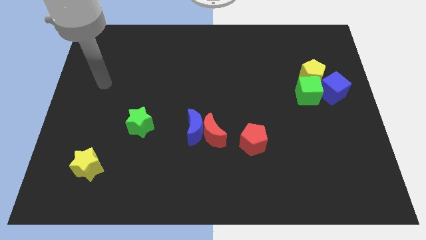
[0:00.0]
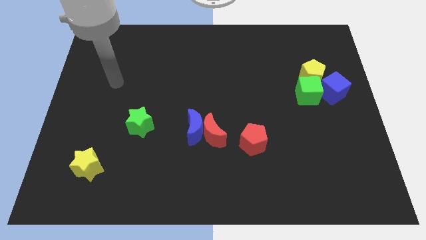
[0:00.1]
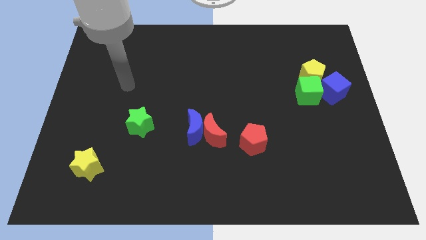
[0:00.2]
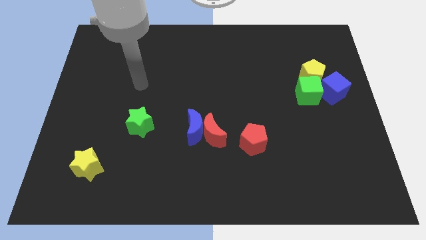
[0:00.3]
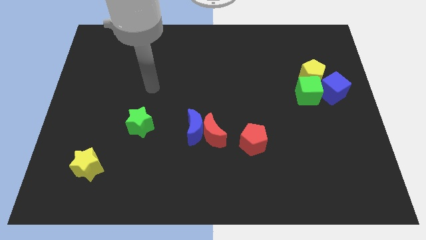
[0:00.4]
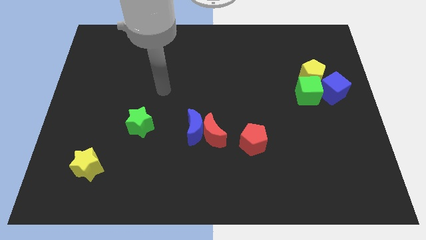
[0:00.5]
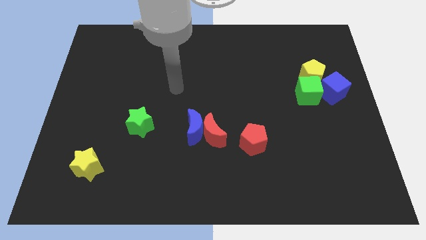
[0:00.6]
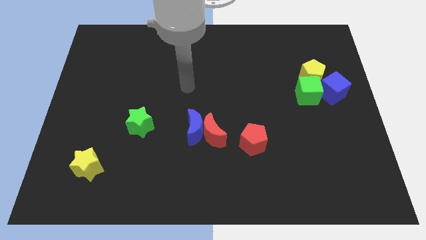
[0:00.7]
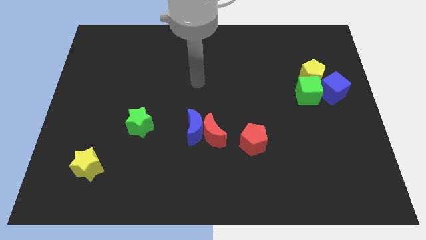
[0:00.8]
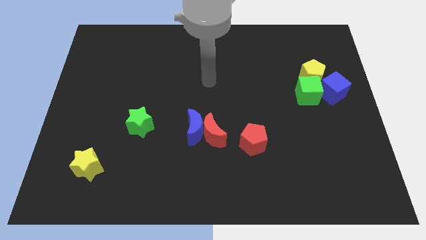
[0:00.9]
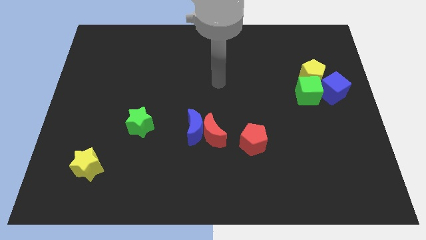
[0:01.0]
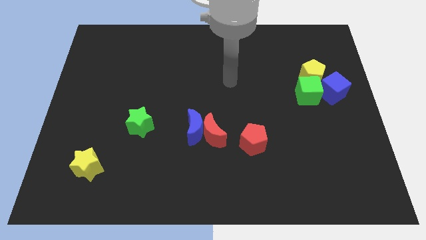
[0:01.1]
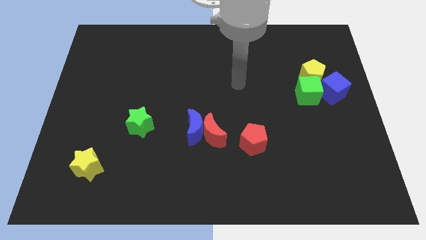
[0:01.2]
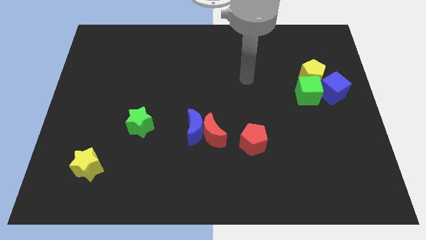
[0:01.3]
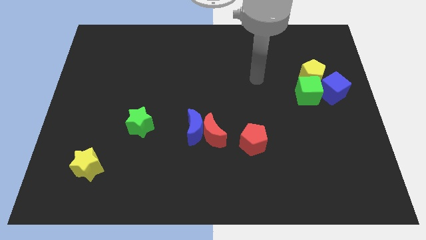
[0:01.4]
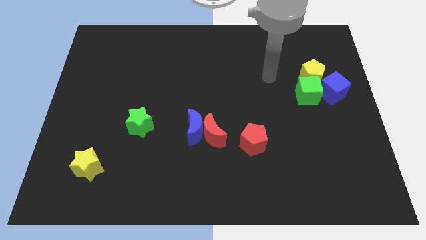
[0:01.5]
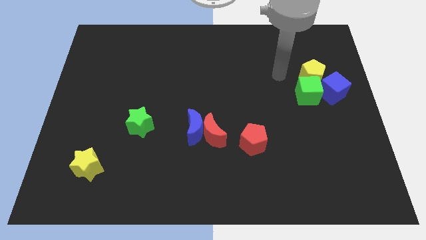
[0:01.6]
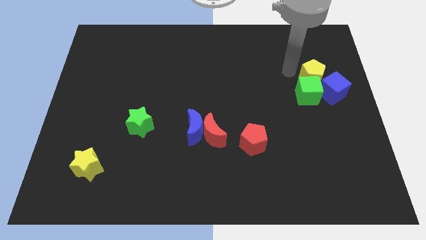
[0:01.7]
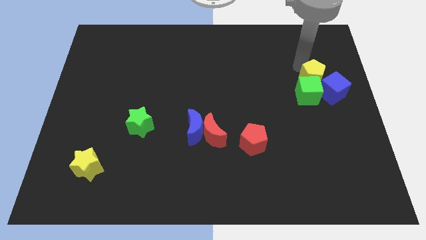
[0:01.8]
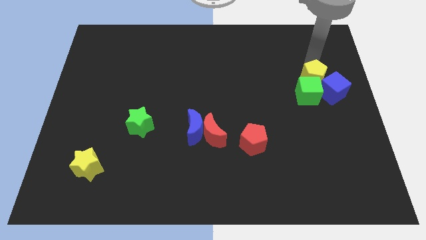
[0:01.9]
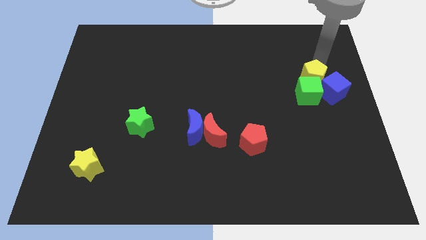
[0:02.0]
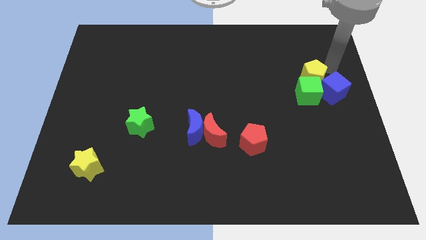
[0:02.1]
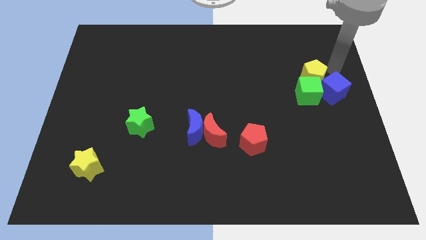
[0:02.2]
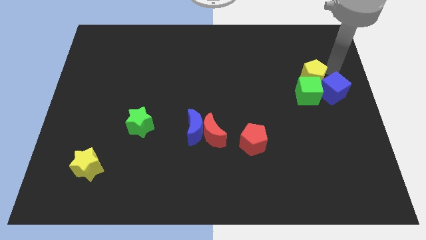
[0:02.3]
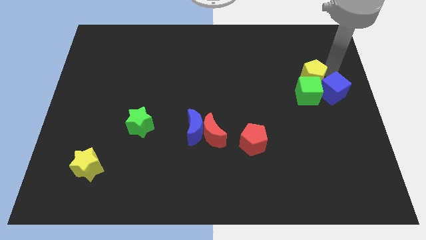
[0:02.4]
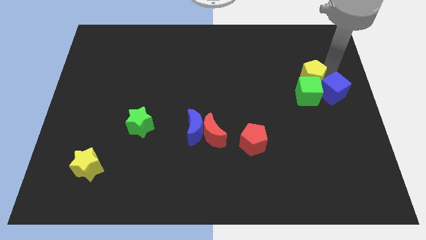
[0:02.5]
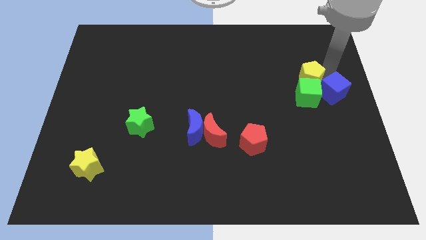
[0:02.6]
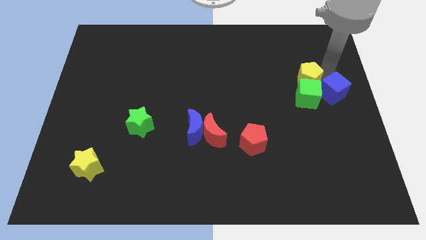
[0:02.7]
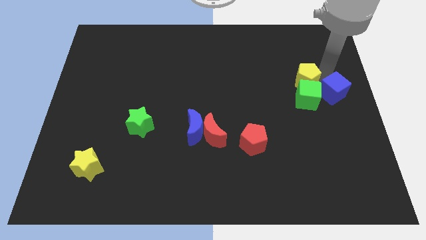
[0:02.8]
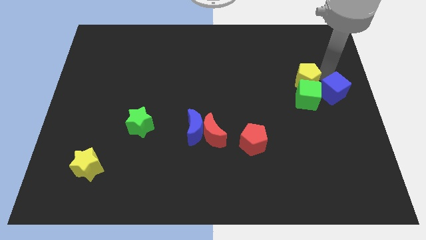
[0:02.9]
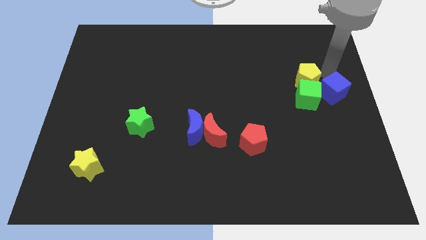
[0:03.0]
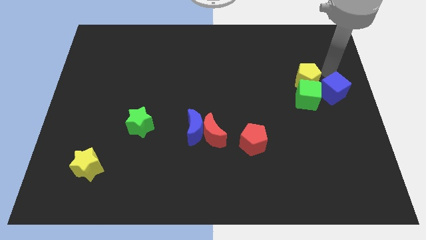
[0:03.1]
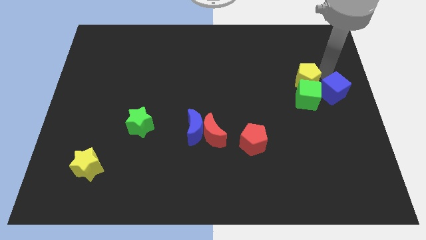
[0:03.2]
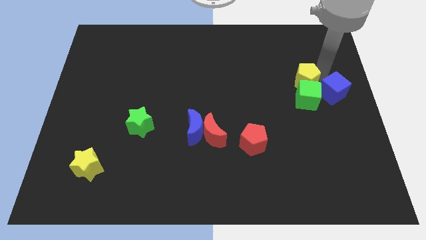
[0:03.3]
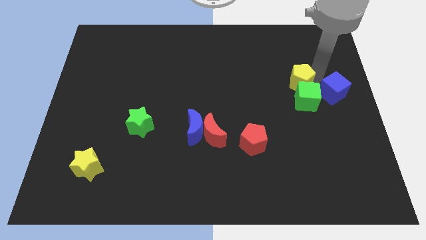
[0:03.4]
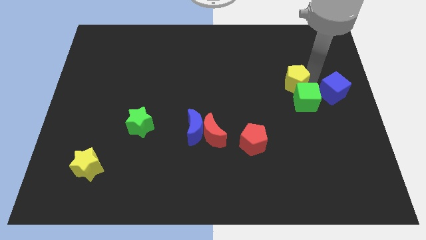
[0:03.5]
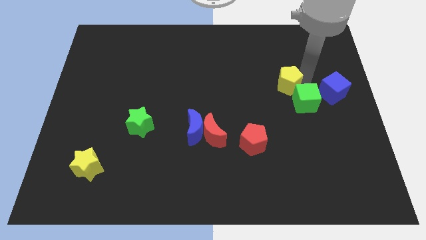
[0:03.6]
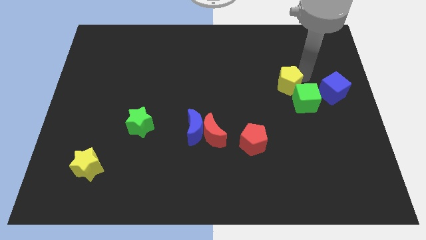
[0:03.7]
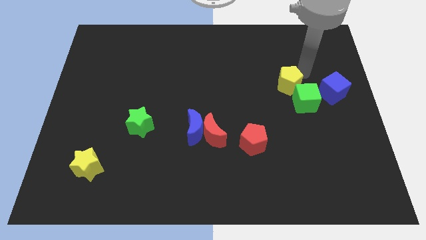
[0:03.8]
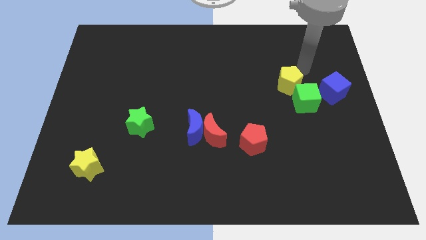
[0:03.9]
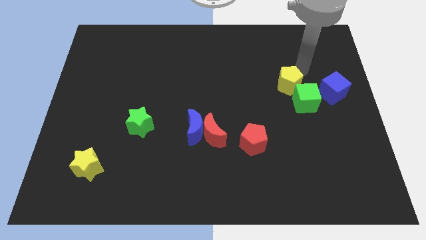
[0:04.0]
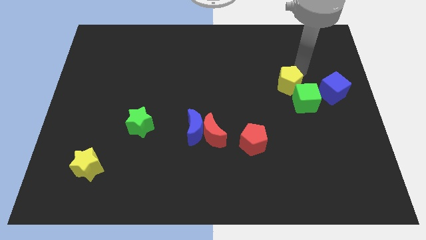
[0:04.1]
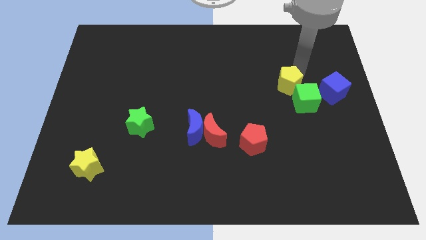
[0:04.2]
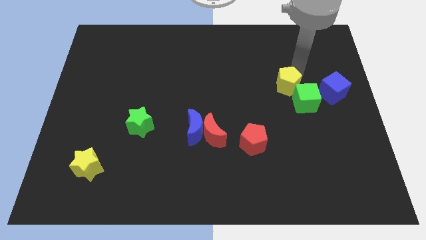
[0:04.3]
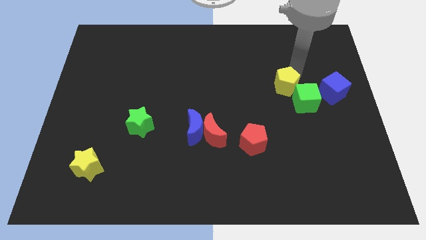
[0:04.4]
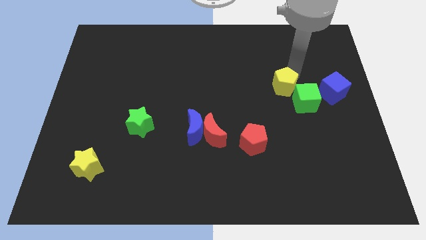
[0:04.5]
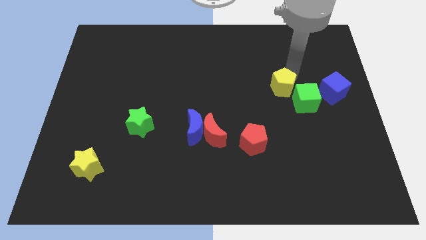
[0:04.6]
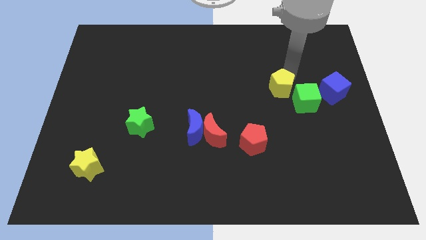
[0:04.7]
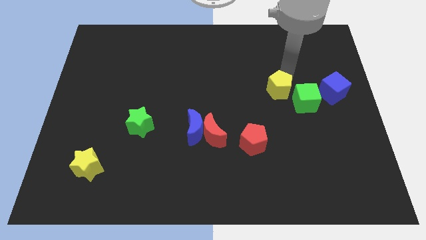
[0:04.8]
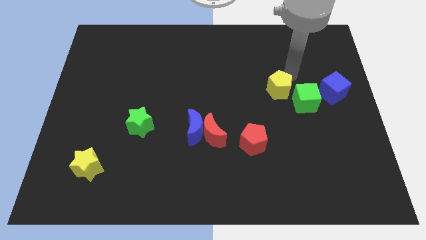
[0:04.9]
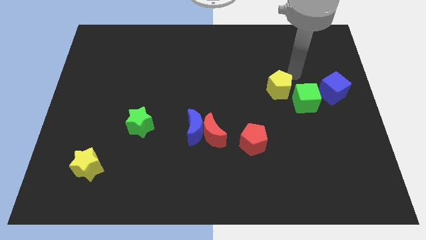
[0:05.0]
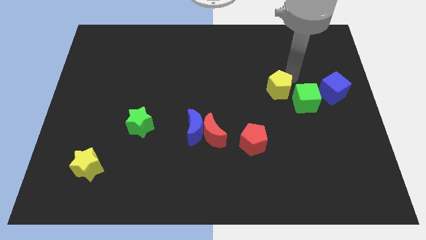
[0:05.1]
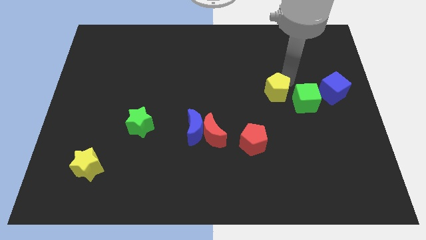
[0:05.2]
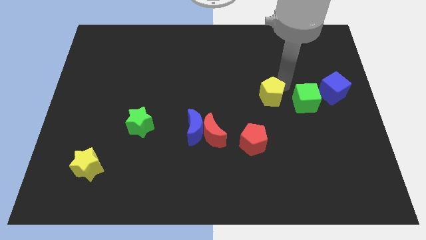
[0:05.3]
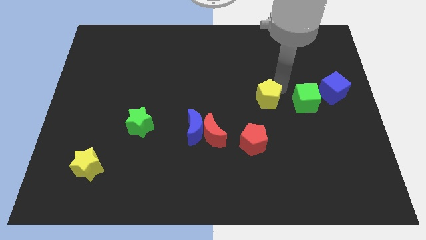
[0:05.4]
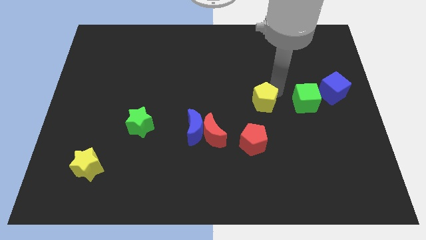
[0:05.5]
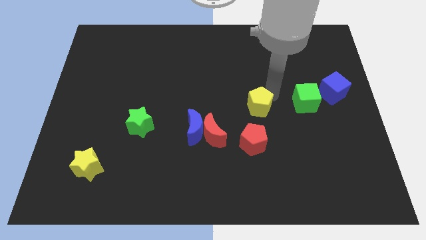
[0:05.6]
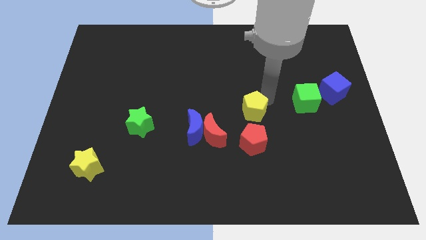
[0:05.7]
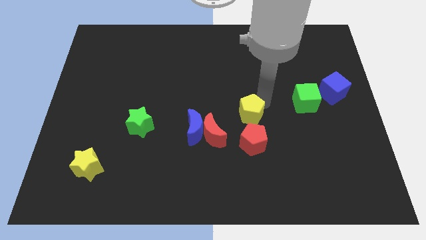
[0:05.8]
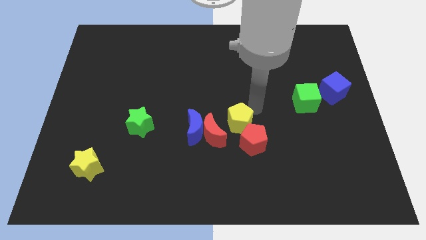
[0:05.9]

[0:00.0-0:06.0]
push the yellow pentagon down and left

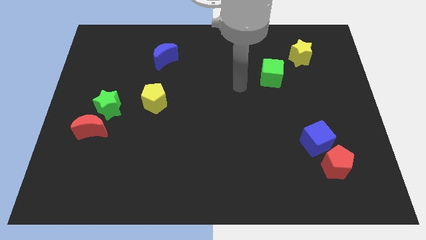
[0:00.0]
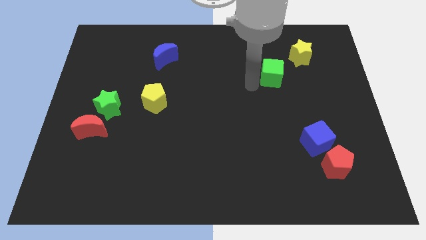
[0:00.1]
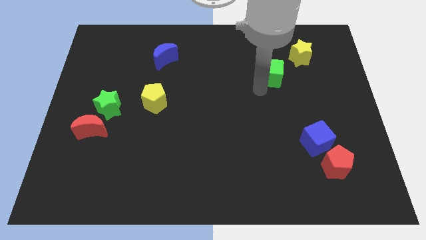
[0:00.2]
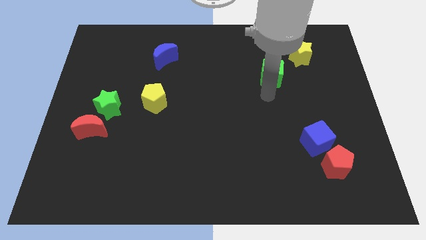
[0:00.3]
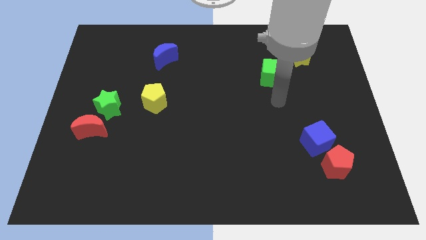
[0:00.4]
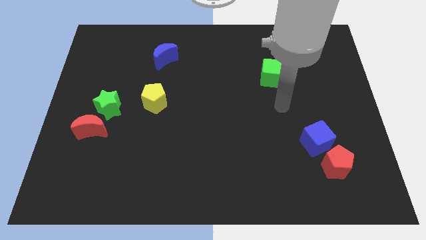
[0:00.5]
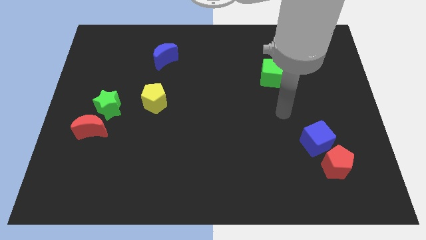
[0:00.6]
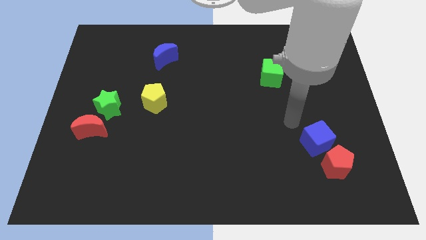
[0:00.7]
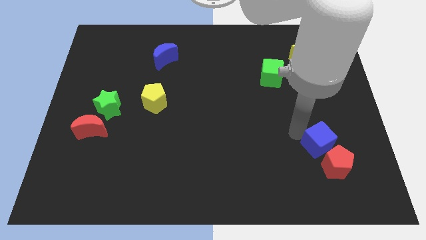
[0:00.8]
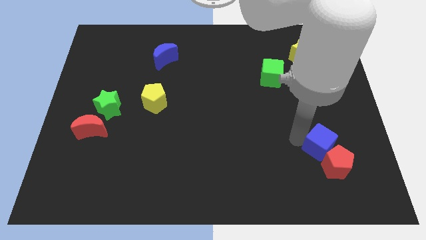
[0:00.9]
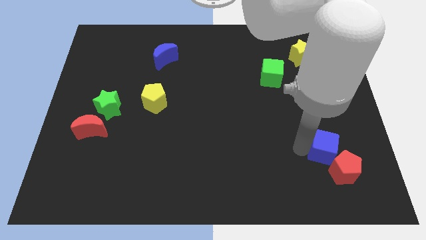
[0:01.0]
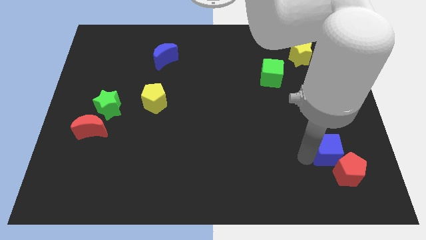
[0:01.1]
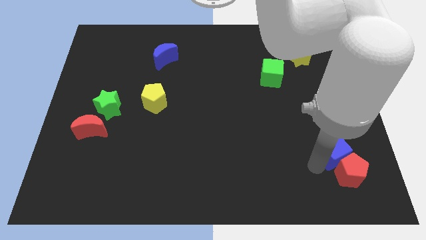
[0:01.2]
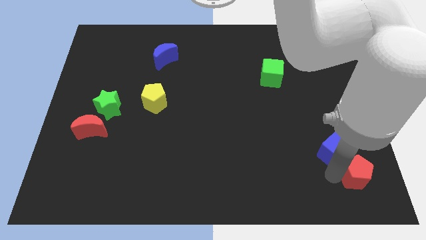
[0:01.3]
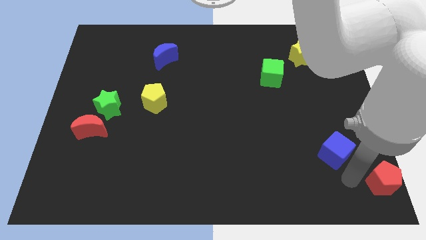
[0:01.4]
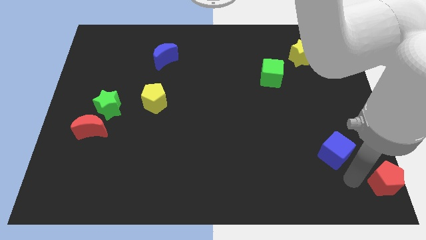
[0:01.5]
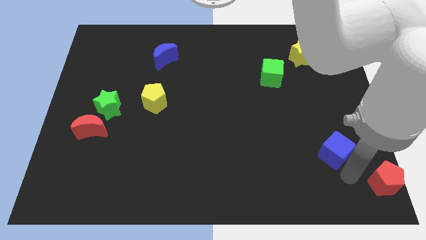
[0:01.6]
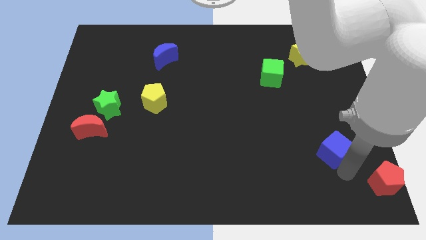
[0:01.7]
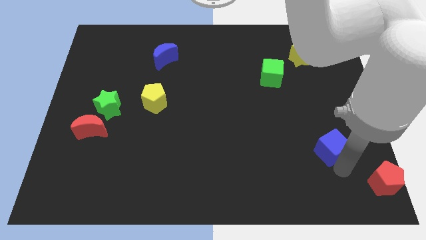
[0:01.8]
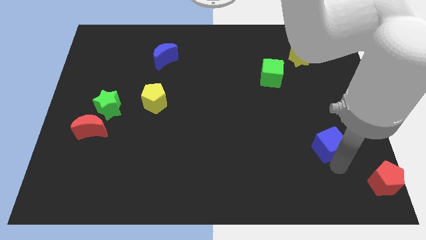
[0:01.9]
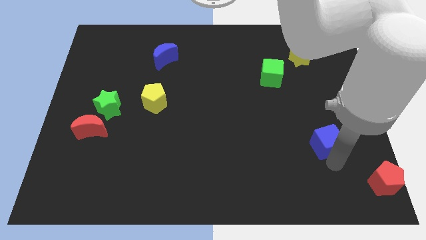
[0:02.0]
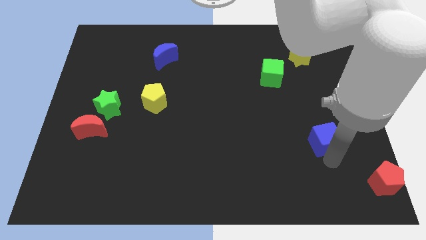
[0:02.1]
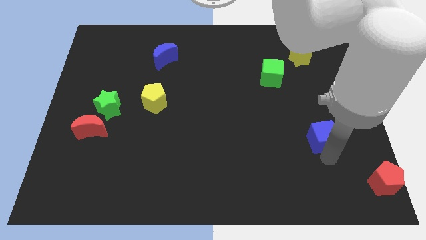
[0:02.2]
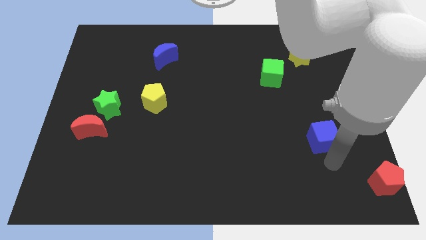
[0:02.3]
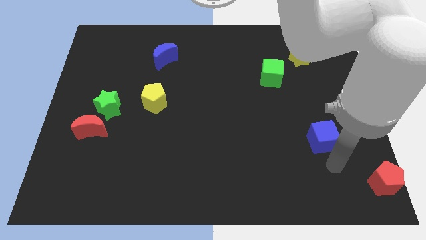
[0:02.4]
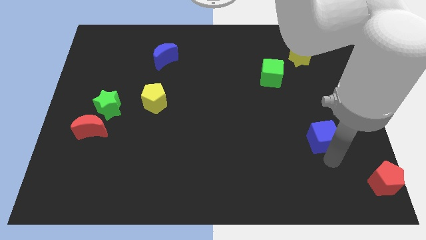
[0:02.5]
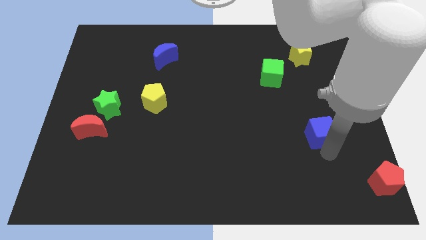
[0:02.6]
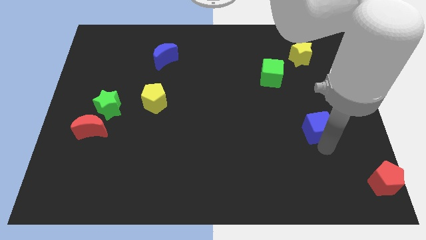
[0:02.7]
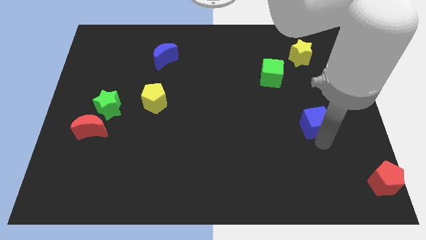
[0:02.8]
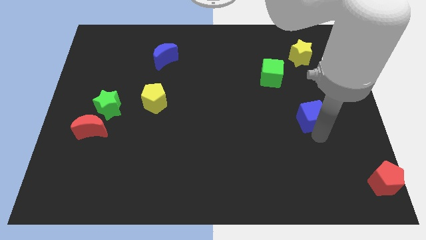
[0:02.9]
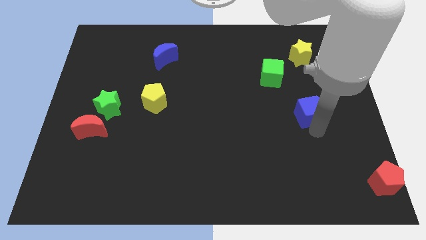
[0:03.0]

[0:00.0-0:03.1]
push the blue cube upwards somewhat
